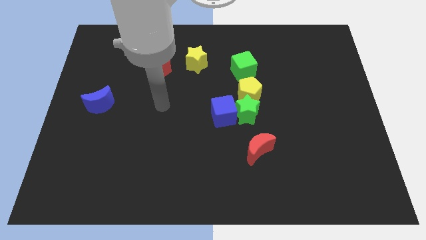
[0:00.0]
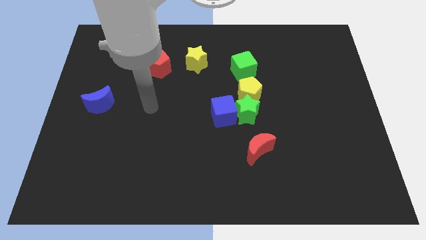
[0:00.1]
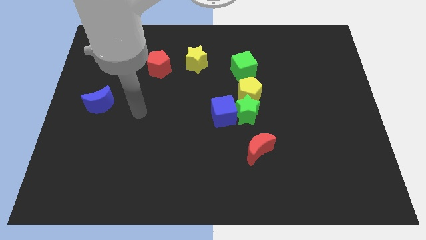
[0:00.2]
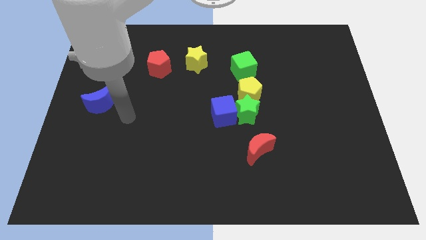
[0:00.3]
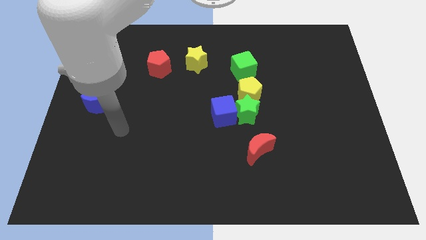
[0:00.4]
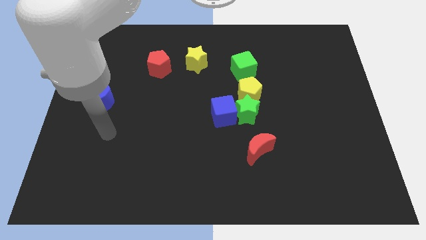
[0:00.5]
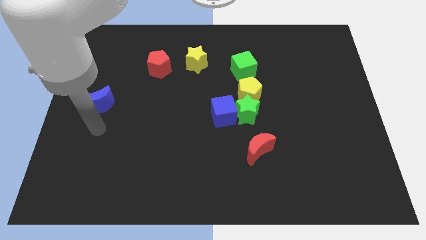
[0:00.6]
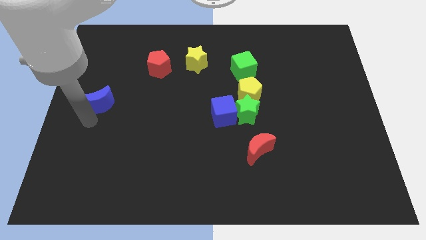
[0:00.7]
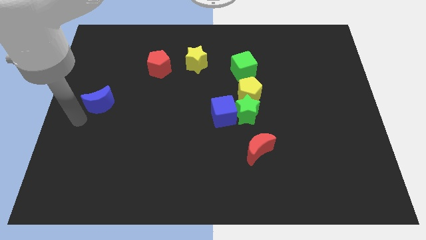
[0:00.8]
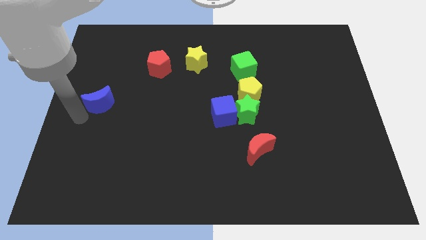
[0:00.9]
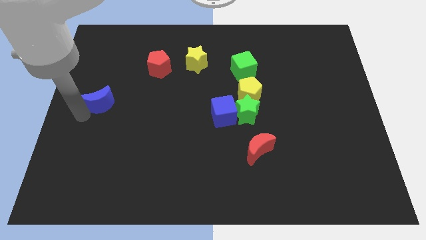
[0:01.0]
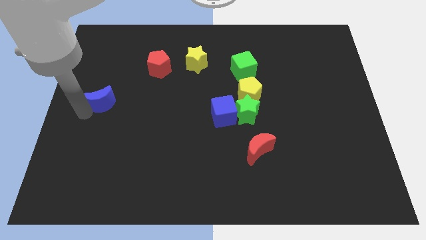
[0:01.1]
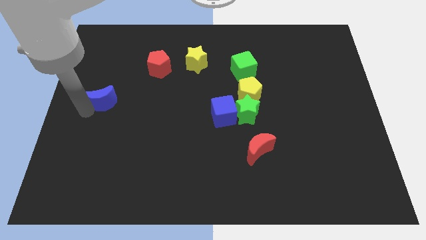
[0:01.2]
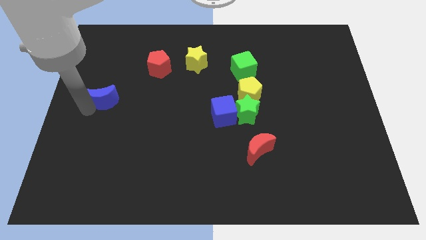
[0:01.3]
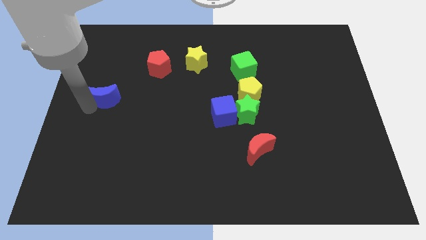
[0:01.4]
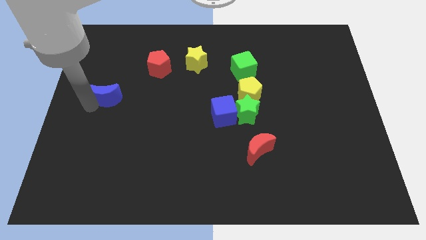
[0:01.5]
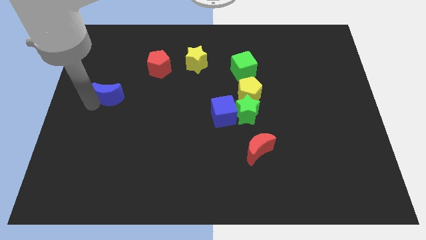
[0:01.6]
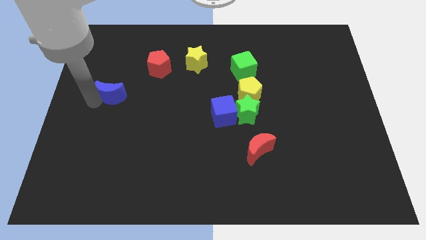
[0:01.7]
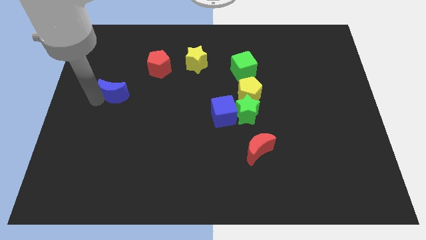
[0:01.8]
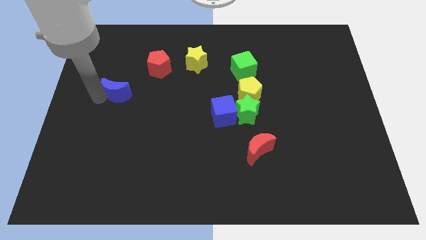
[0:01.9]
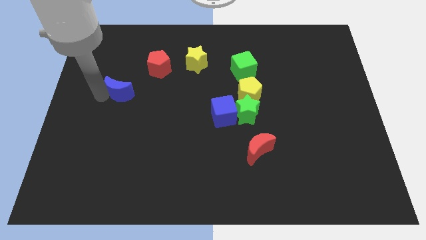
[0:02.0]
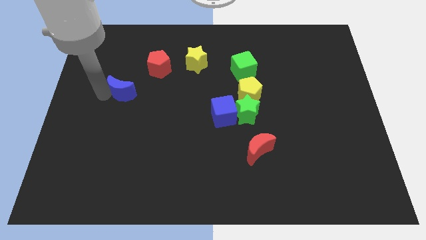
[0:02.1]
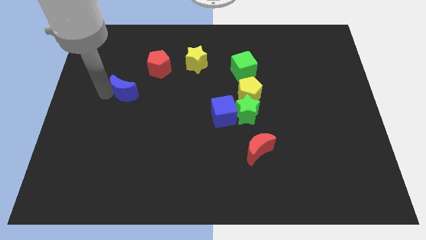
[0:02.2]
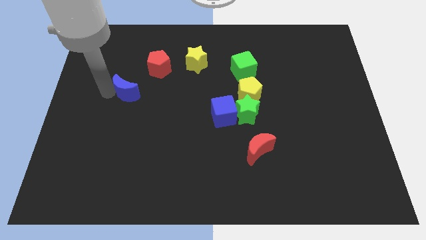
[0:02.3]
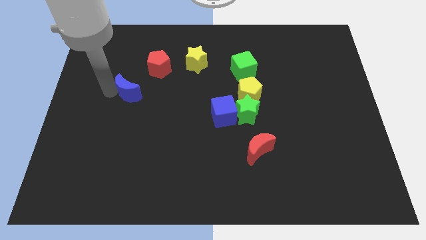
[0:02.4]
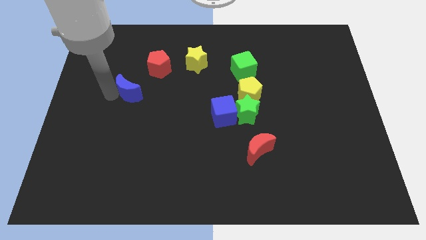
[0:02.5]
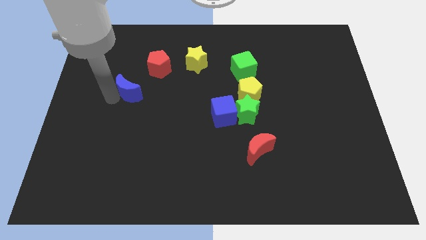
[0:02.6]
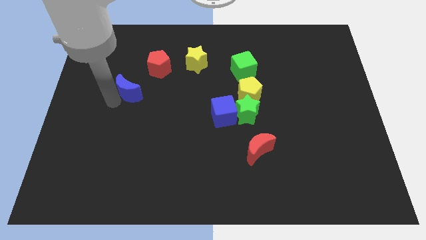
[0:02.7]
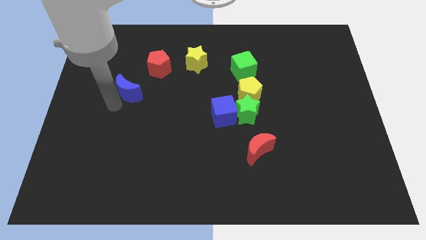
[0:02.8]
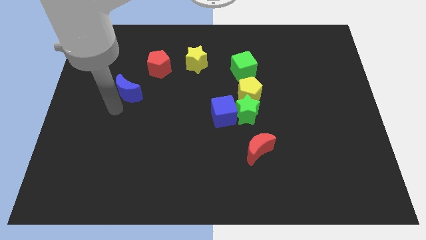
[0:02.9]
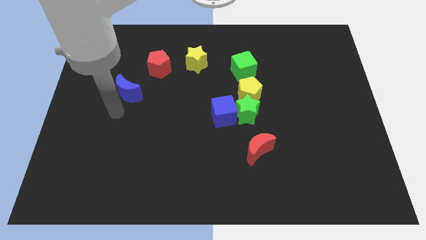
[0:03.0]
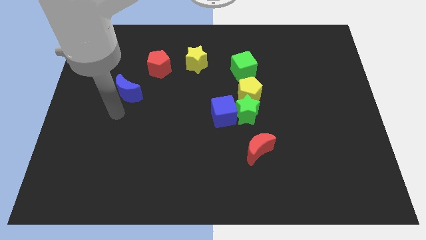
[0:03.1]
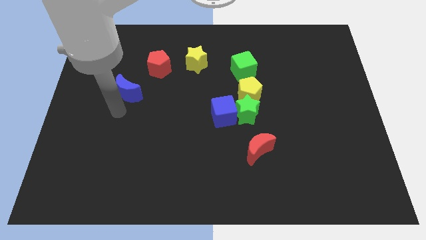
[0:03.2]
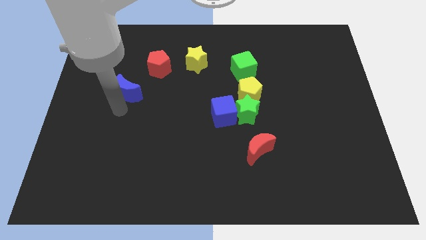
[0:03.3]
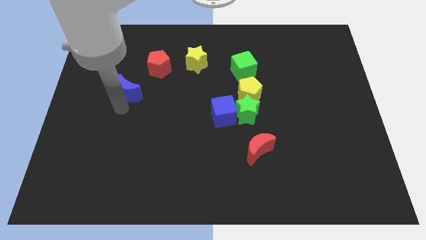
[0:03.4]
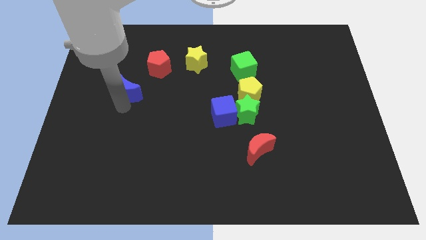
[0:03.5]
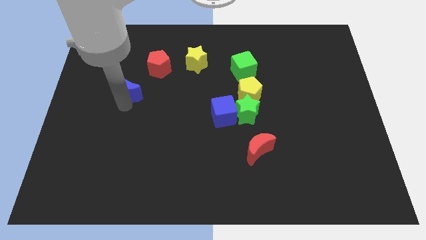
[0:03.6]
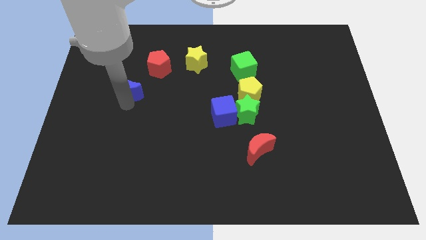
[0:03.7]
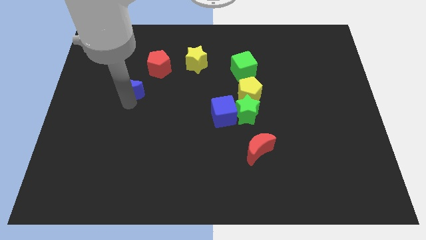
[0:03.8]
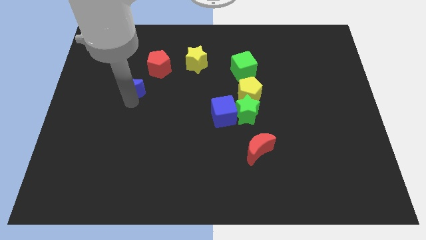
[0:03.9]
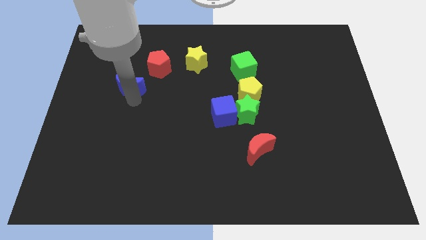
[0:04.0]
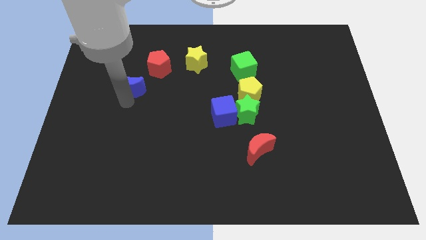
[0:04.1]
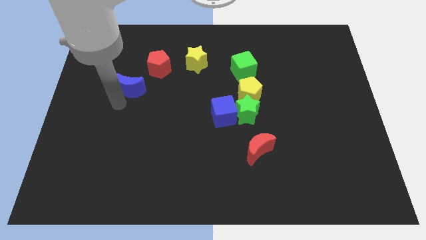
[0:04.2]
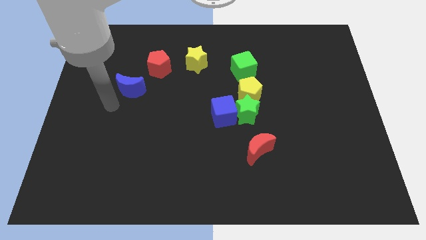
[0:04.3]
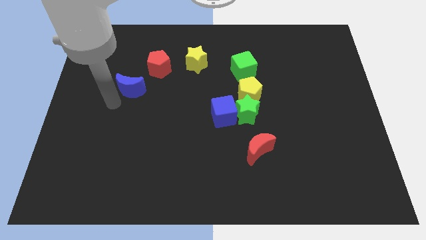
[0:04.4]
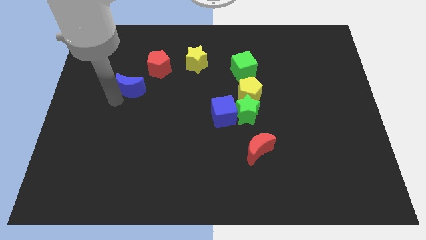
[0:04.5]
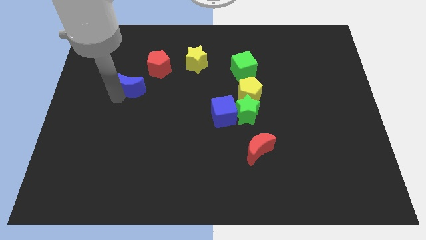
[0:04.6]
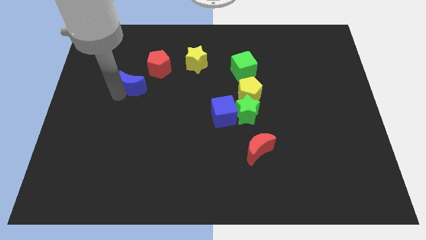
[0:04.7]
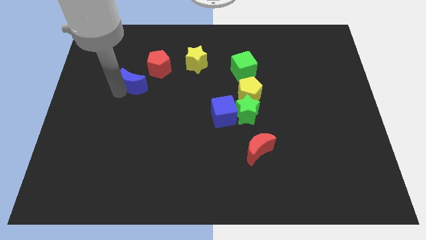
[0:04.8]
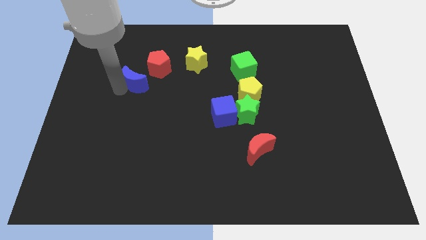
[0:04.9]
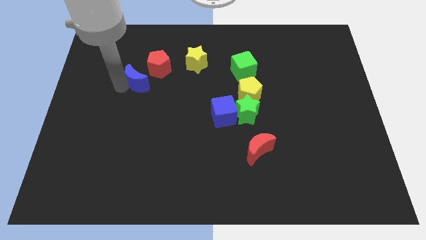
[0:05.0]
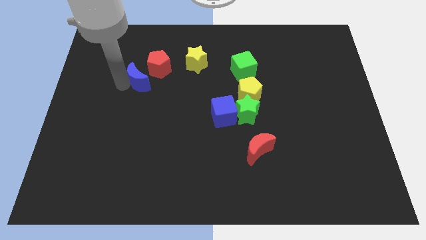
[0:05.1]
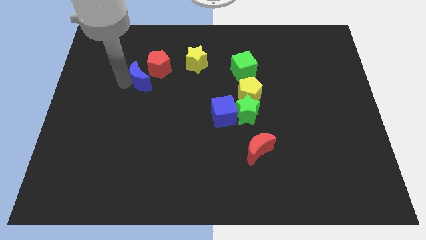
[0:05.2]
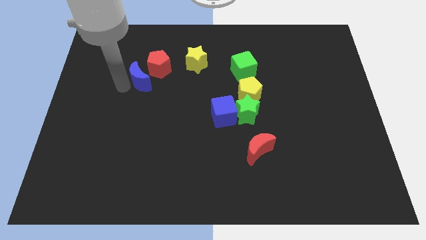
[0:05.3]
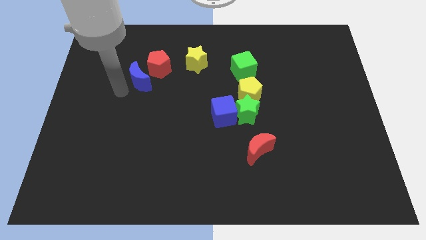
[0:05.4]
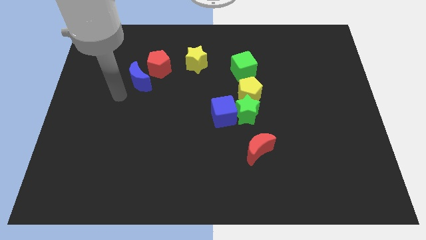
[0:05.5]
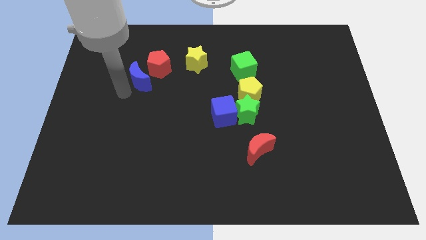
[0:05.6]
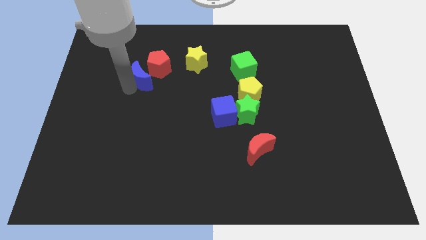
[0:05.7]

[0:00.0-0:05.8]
move the blue moon to the red pentagon
